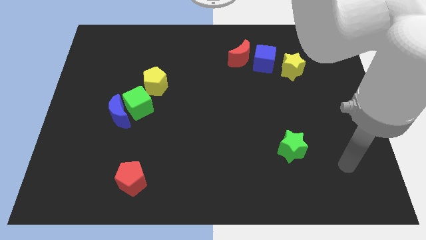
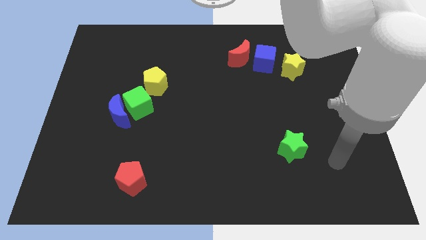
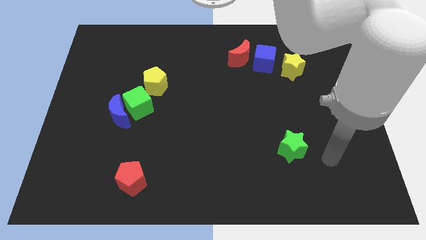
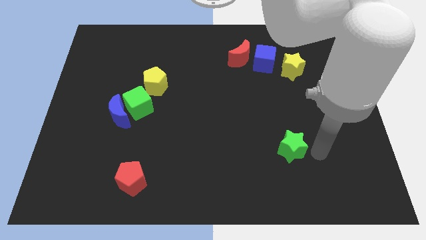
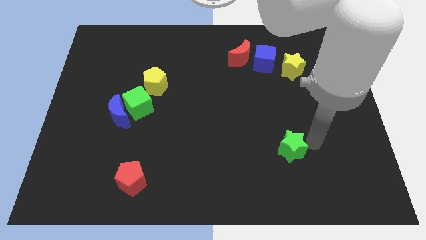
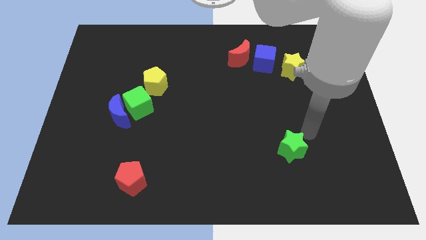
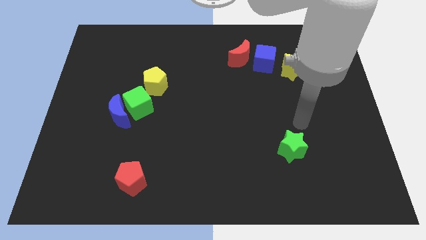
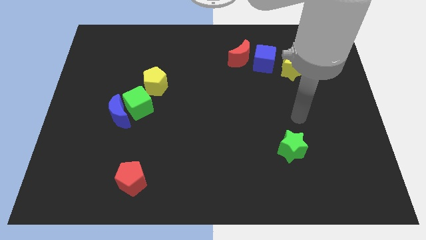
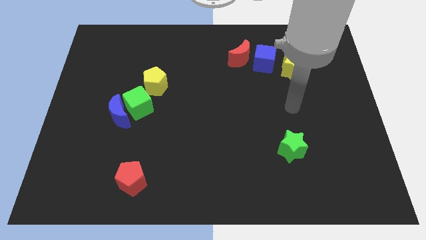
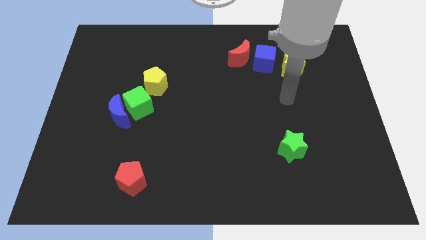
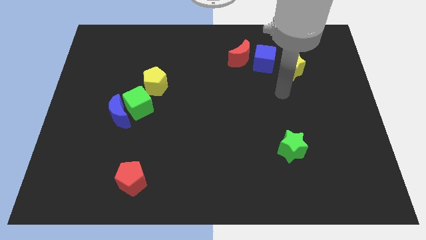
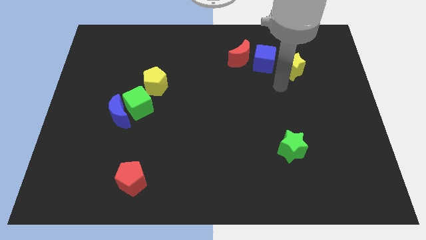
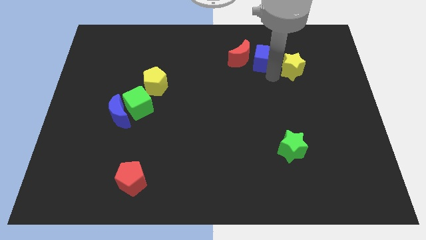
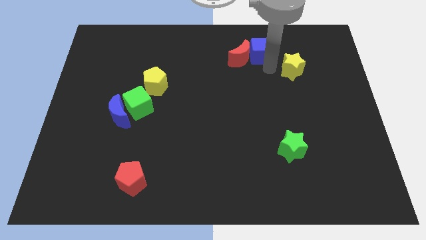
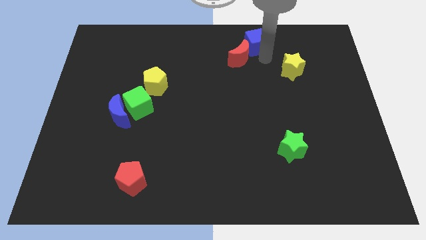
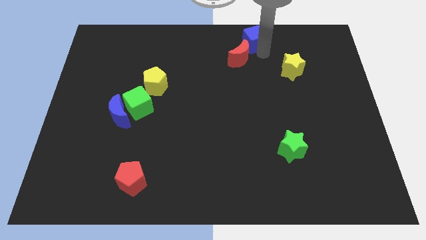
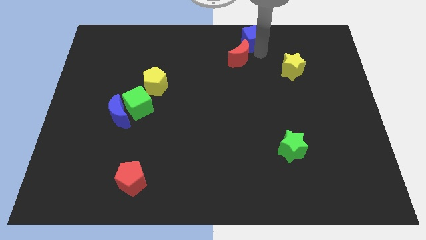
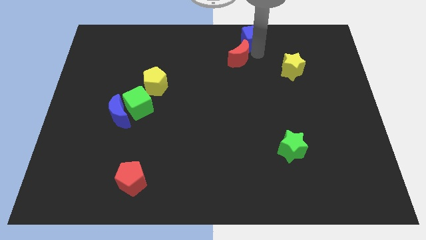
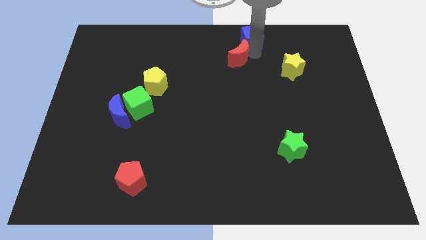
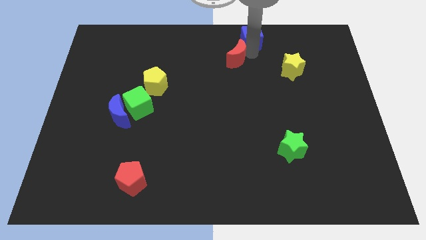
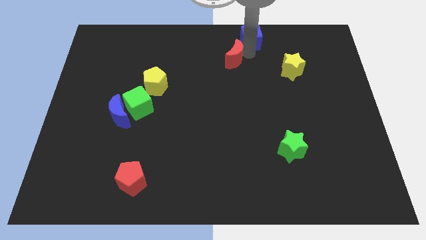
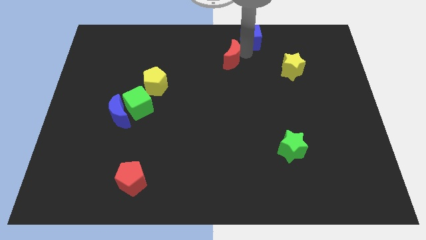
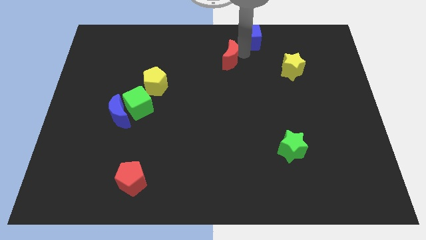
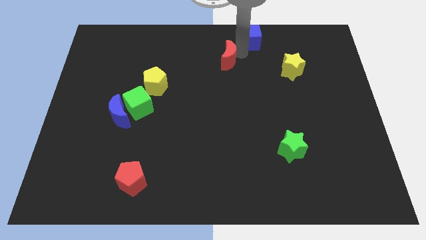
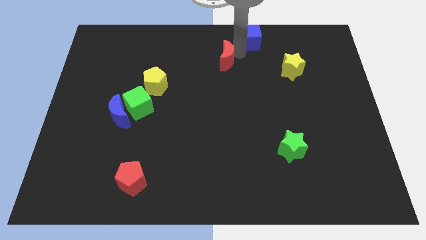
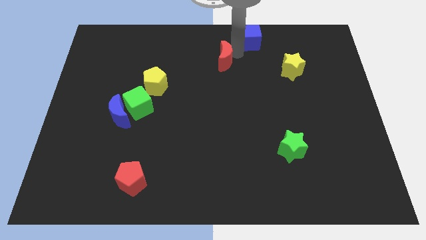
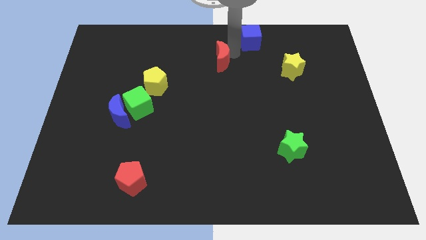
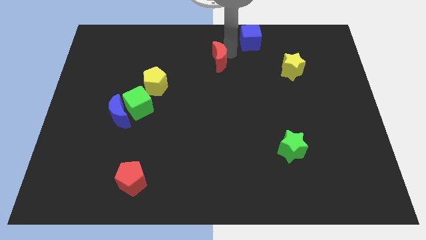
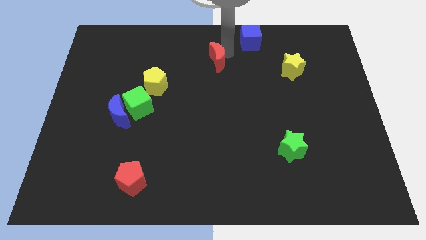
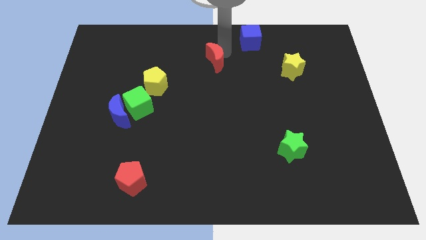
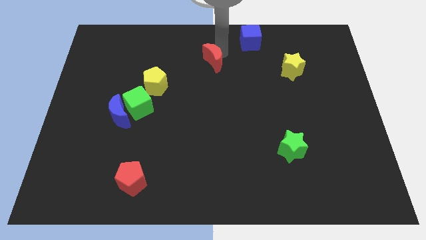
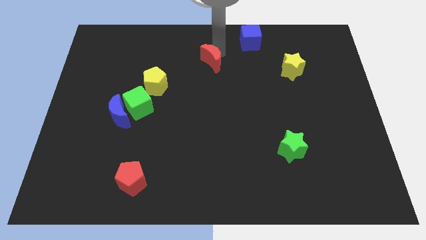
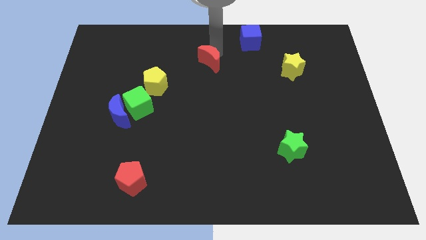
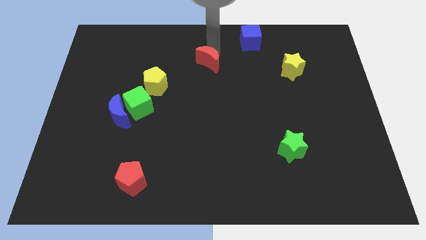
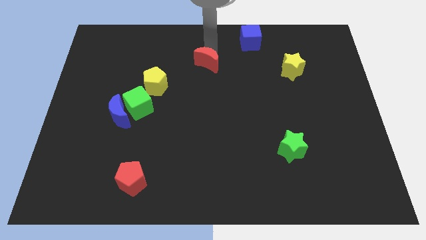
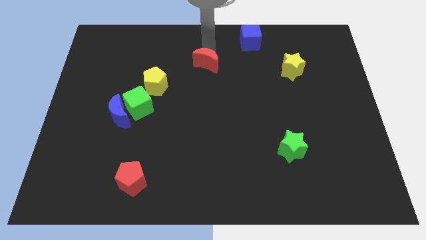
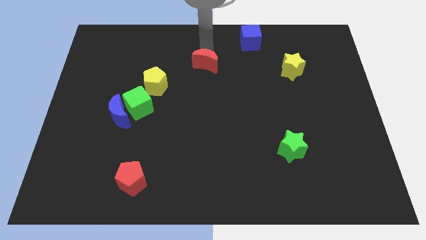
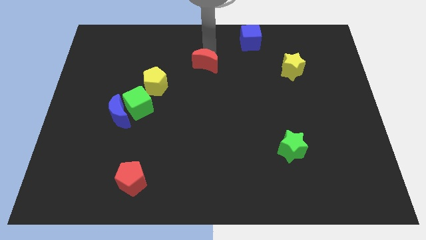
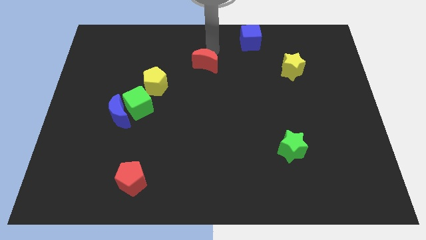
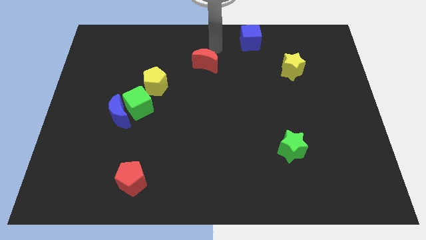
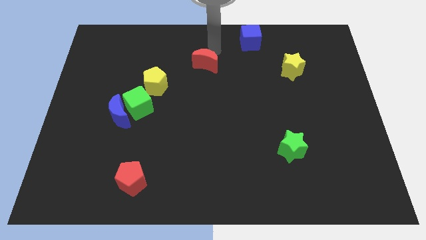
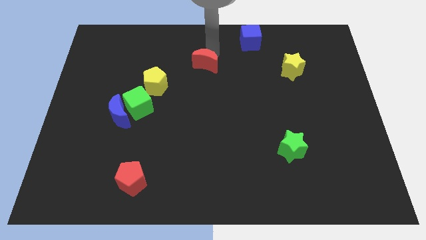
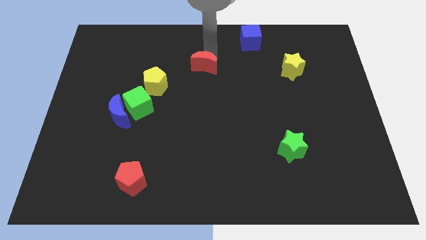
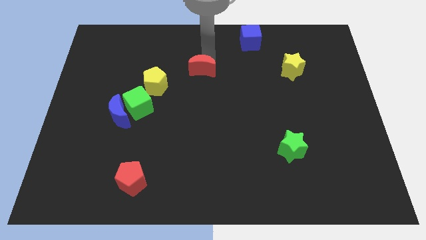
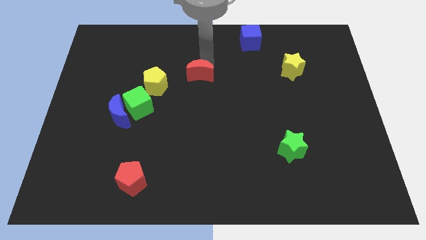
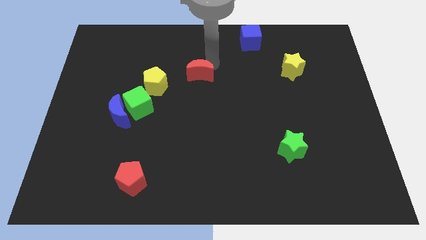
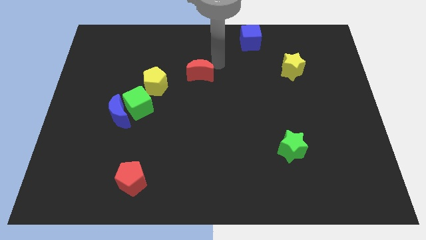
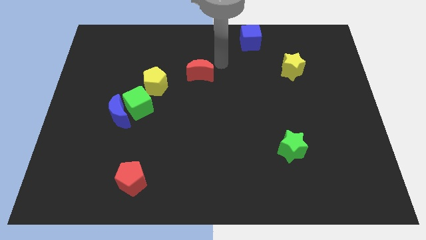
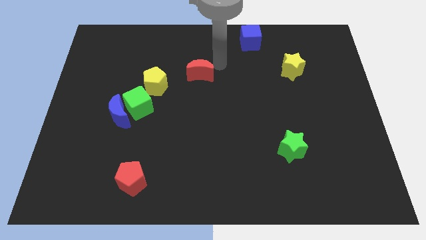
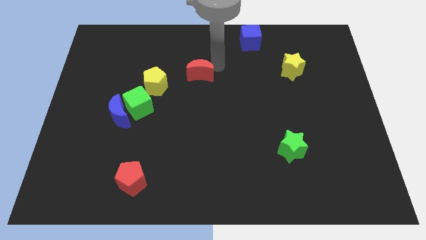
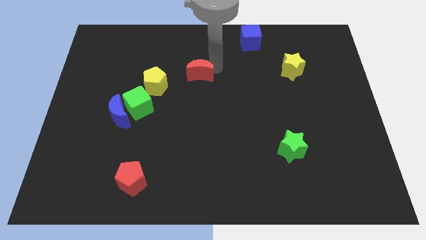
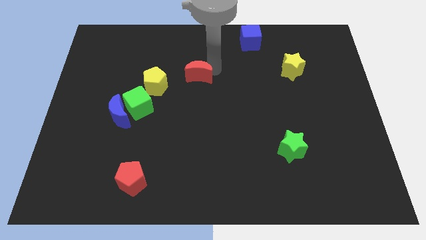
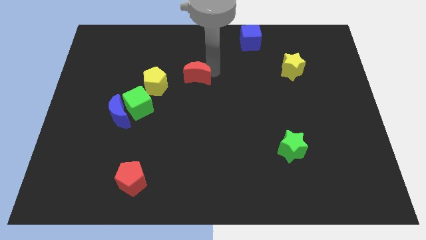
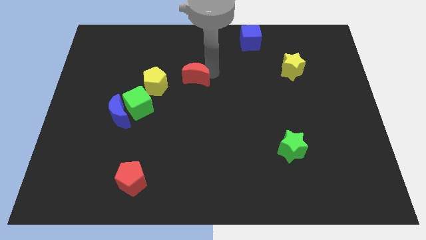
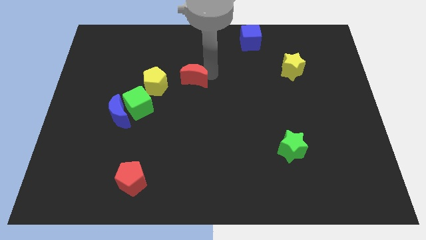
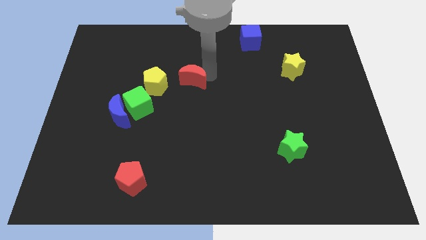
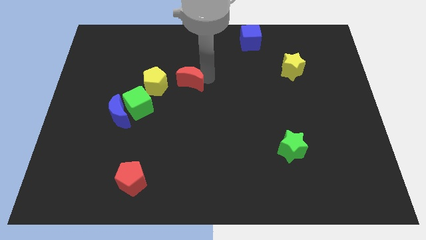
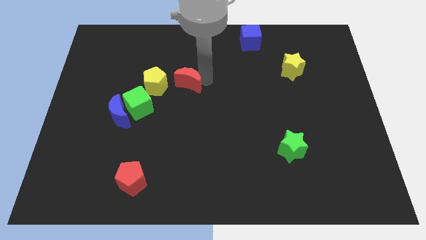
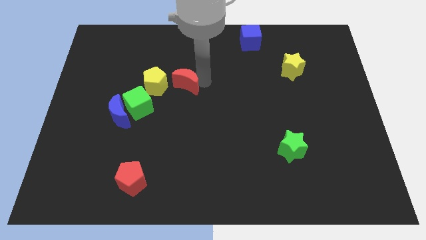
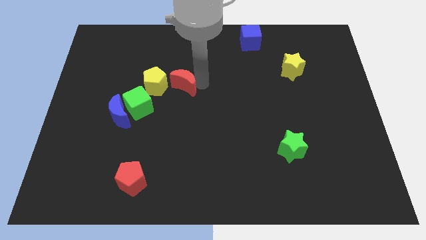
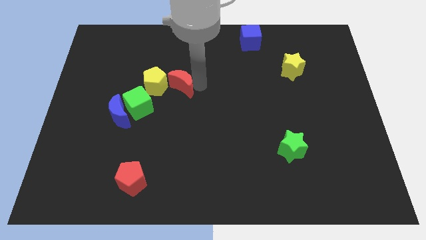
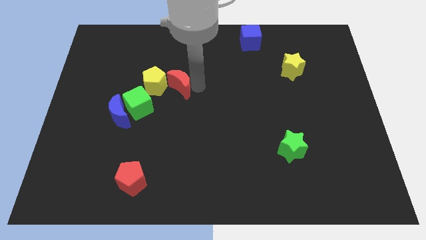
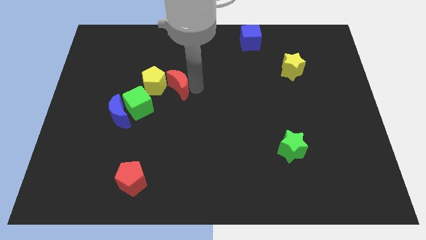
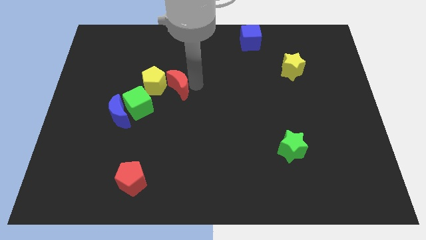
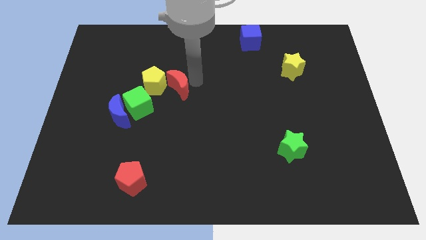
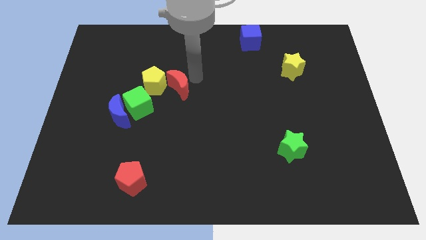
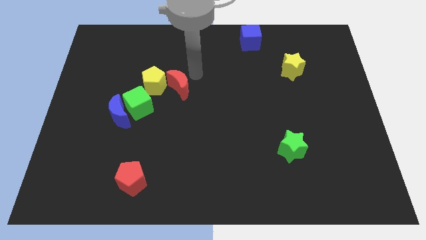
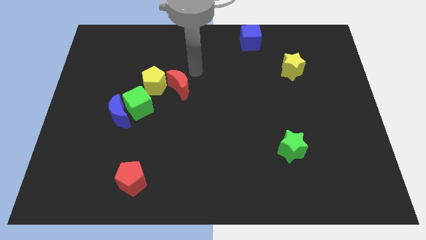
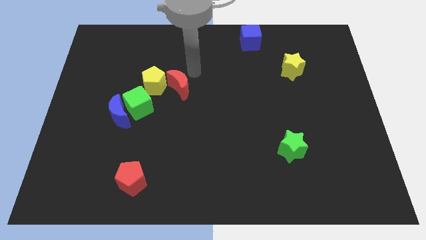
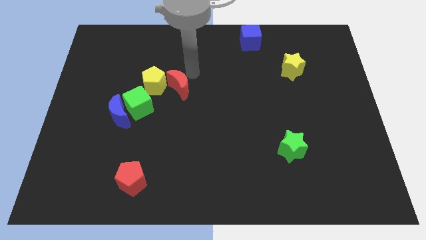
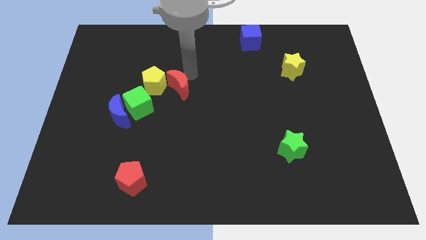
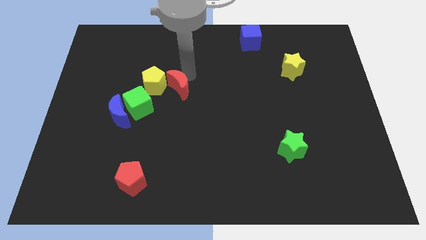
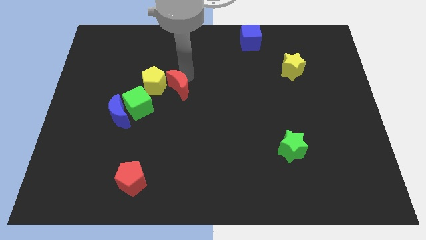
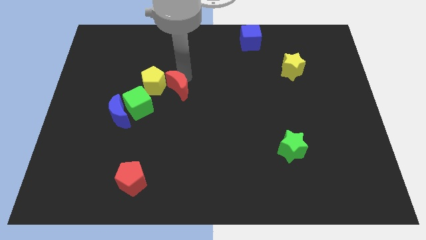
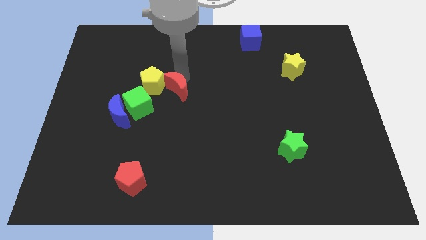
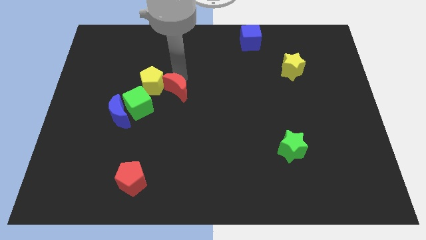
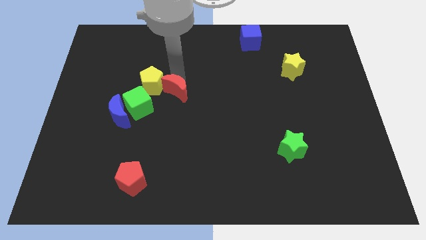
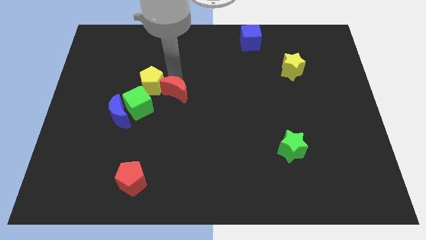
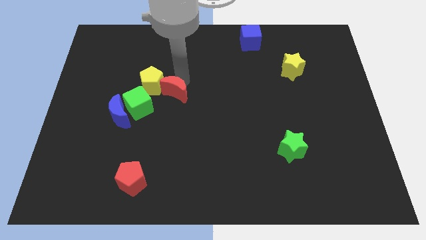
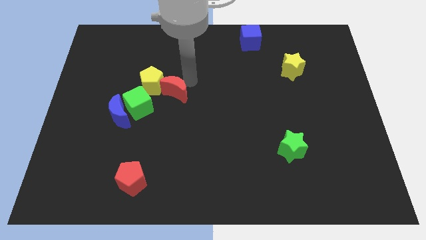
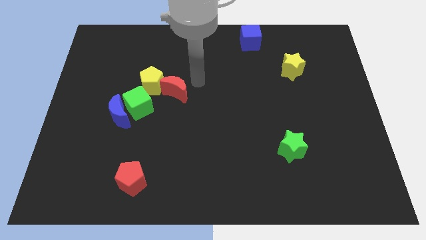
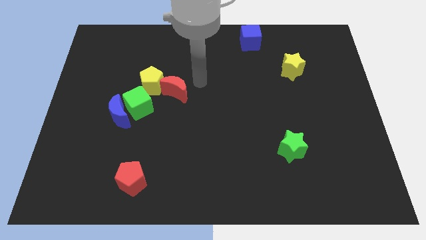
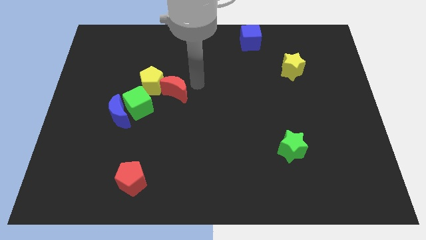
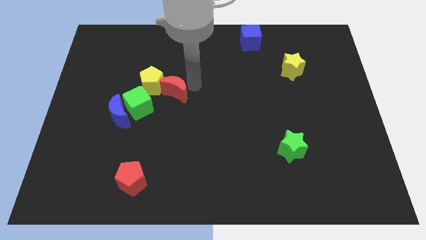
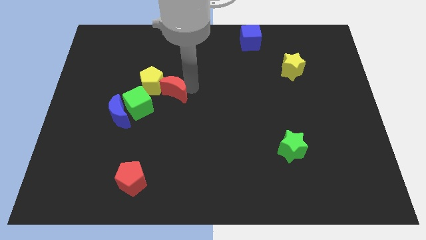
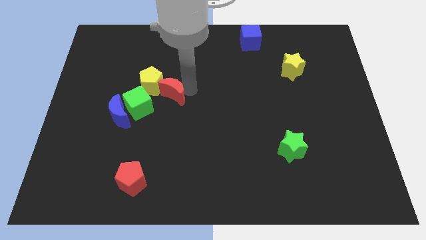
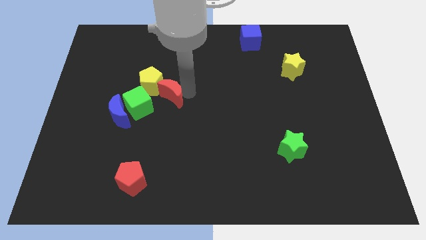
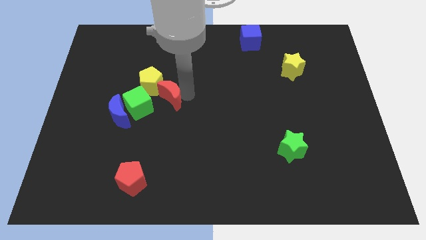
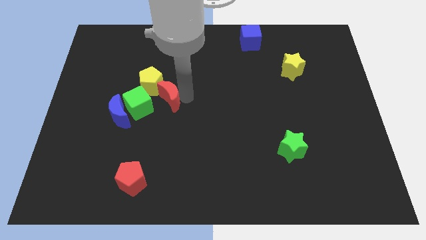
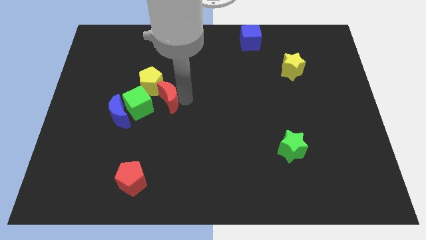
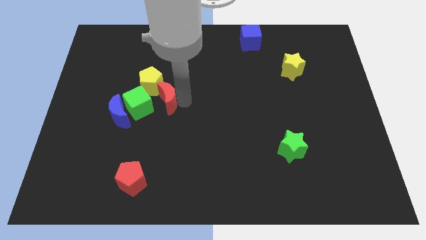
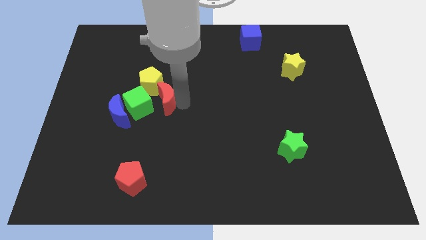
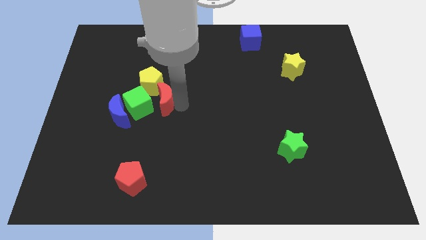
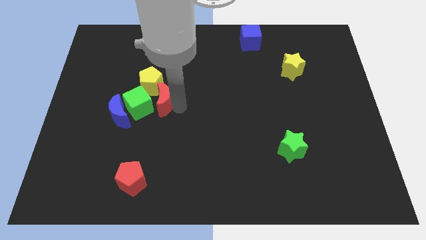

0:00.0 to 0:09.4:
put the red moon to the green cube
